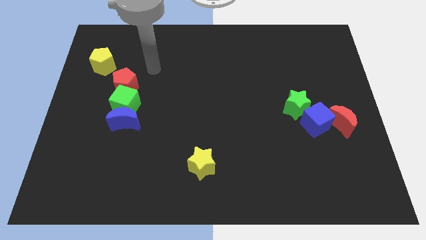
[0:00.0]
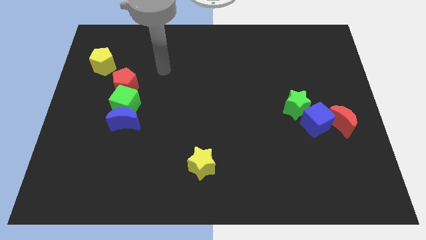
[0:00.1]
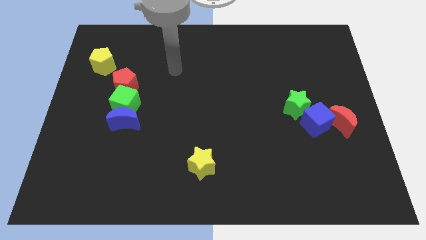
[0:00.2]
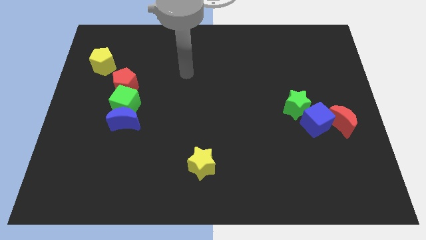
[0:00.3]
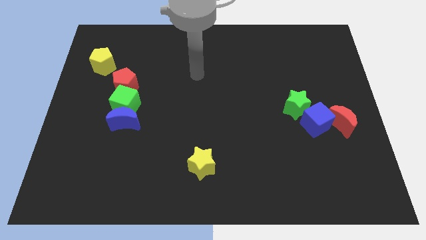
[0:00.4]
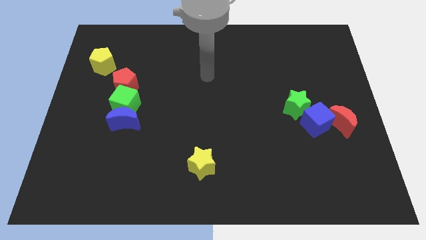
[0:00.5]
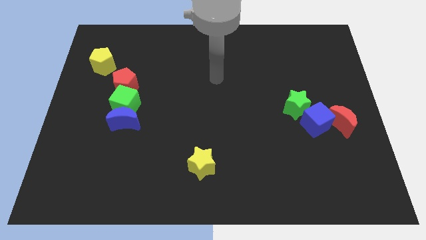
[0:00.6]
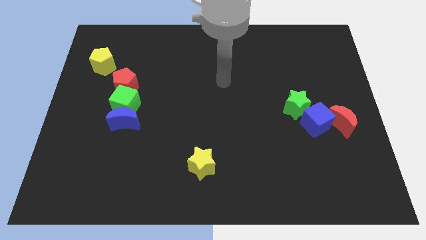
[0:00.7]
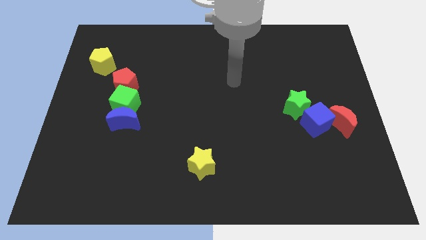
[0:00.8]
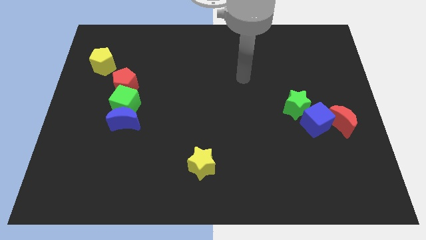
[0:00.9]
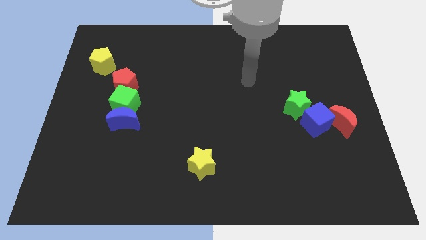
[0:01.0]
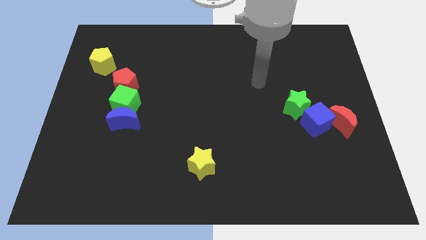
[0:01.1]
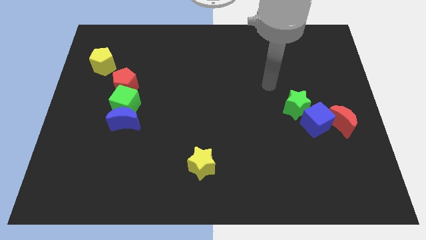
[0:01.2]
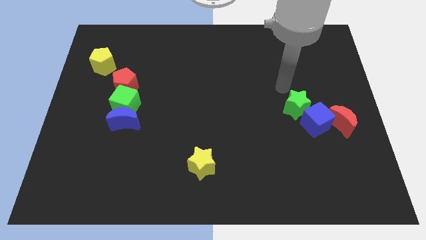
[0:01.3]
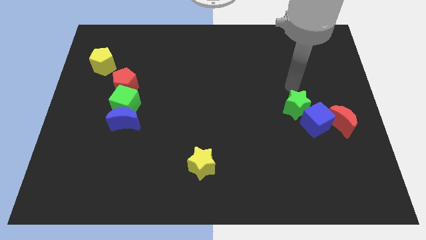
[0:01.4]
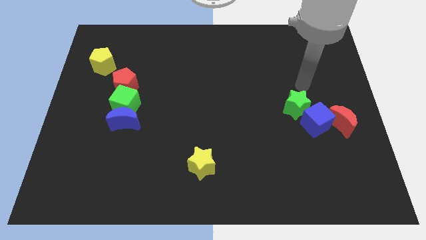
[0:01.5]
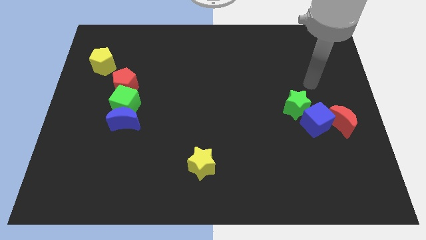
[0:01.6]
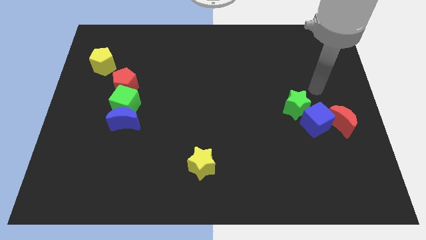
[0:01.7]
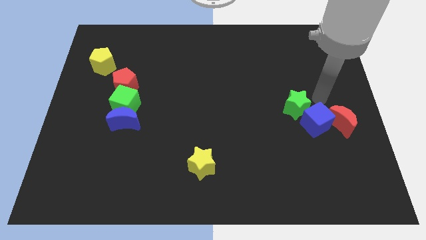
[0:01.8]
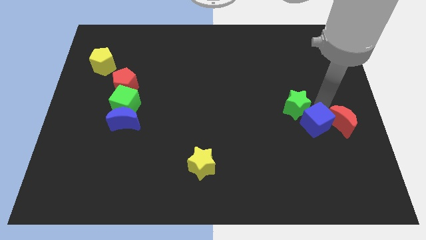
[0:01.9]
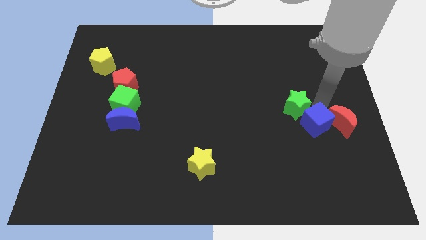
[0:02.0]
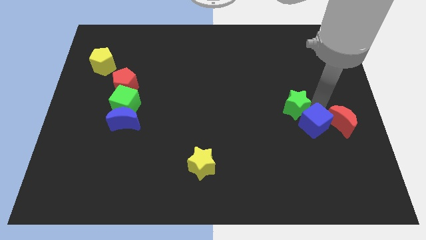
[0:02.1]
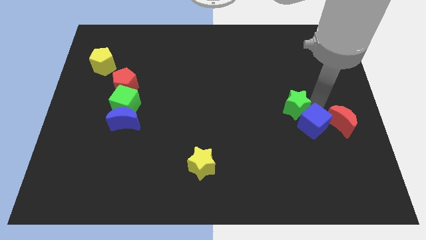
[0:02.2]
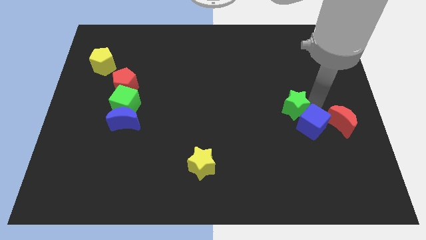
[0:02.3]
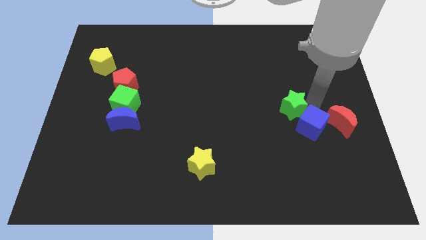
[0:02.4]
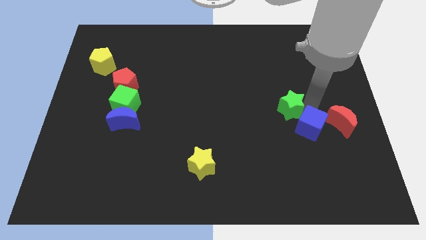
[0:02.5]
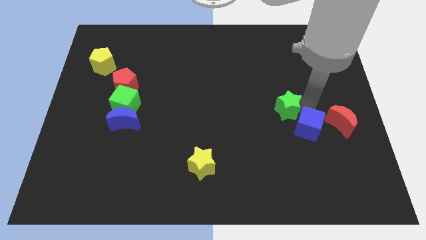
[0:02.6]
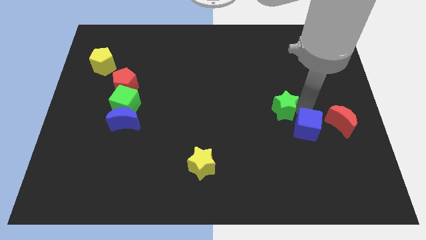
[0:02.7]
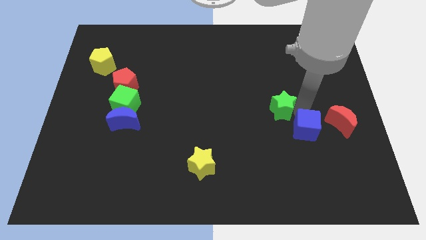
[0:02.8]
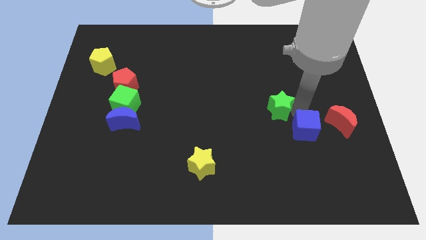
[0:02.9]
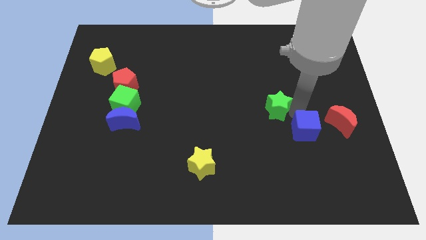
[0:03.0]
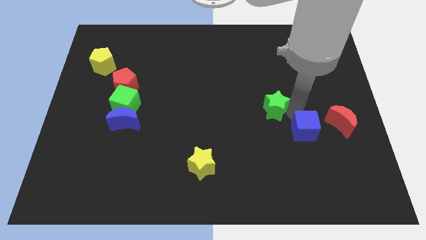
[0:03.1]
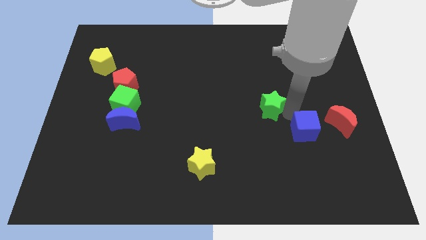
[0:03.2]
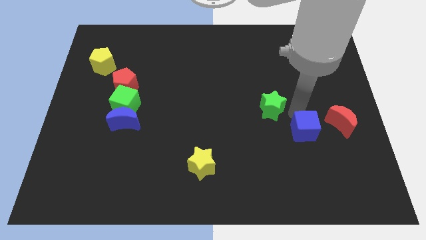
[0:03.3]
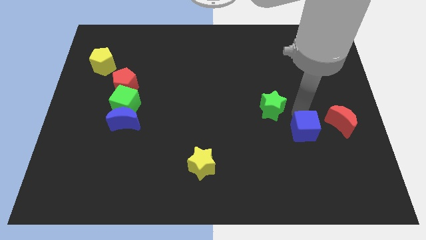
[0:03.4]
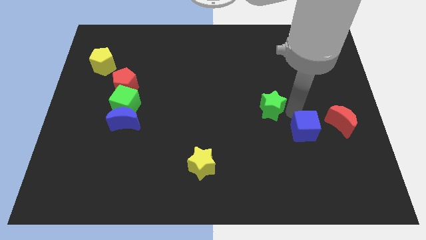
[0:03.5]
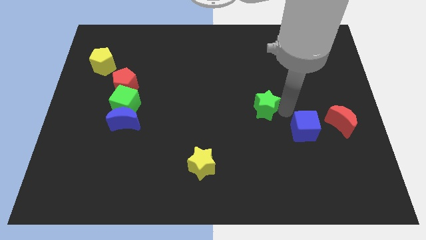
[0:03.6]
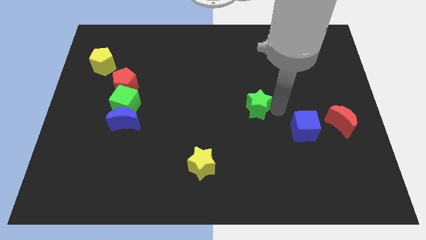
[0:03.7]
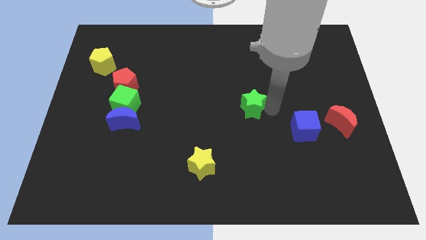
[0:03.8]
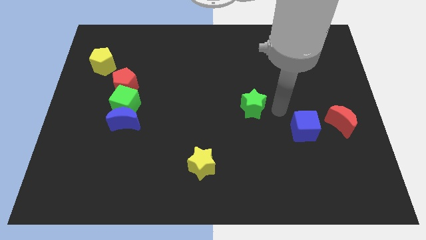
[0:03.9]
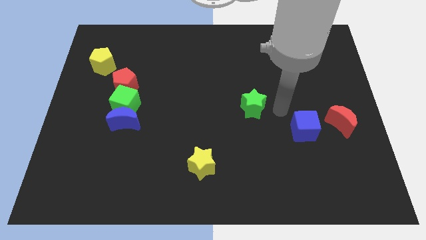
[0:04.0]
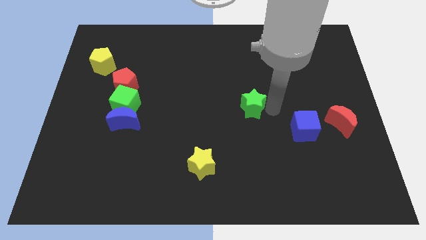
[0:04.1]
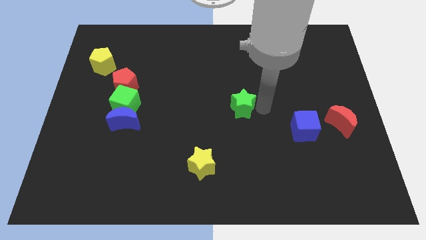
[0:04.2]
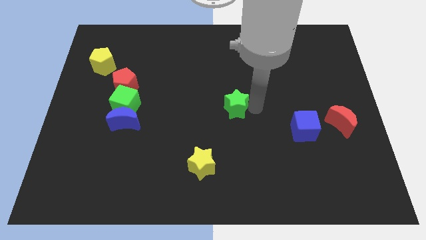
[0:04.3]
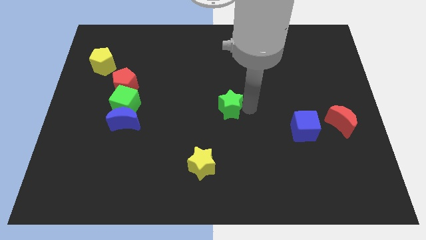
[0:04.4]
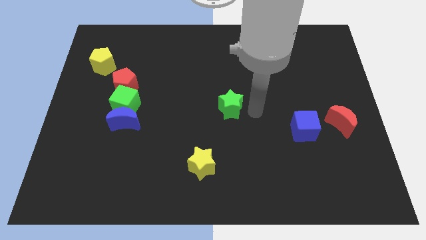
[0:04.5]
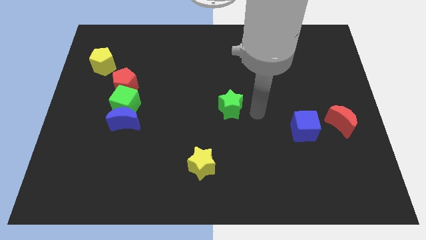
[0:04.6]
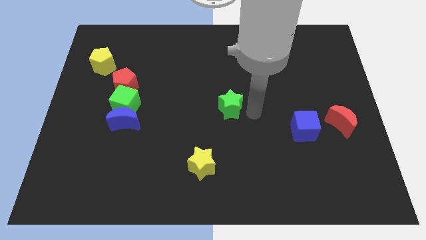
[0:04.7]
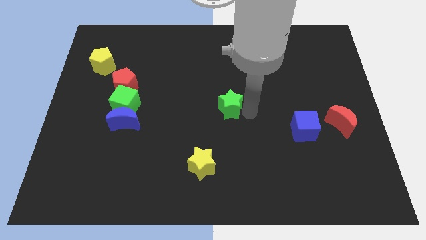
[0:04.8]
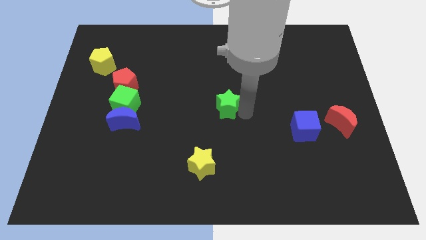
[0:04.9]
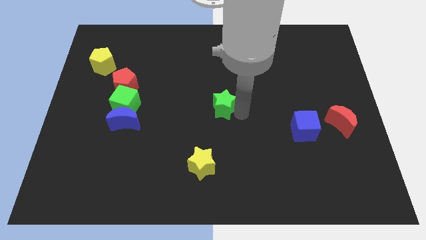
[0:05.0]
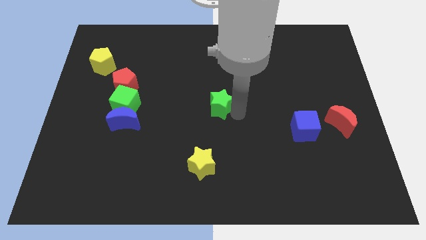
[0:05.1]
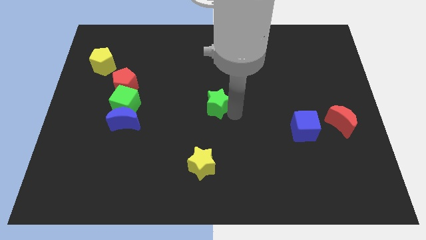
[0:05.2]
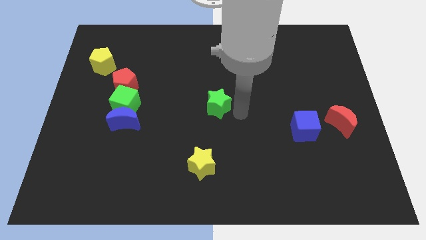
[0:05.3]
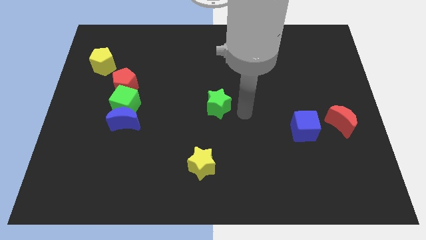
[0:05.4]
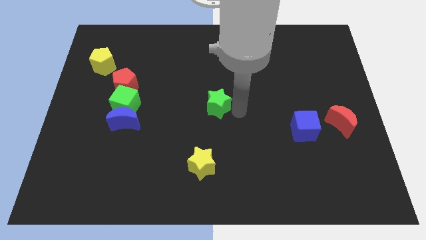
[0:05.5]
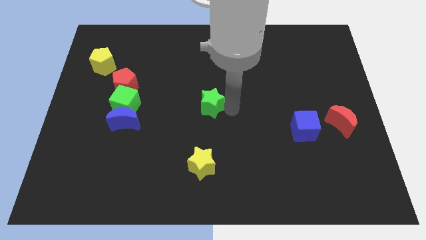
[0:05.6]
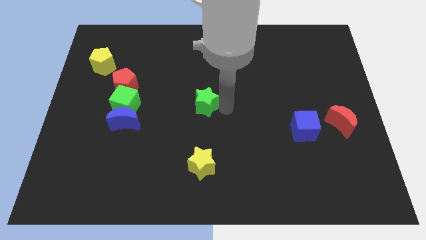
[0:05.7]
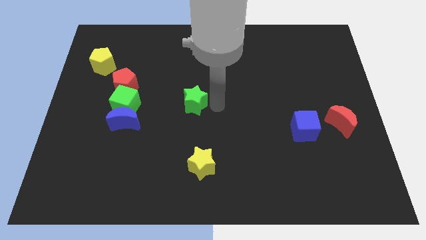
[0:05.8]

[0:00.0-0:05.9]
move the green star to the right side of the green cube

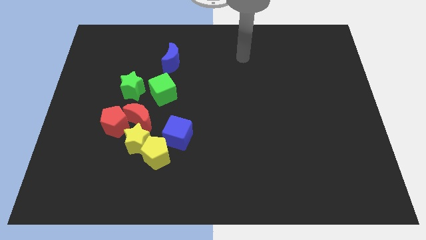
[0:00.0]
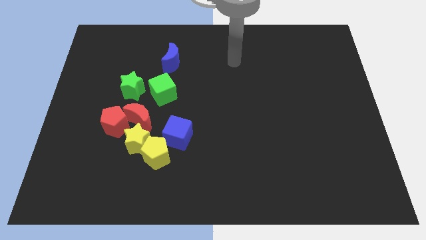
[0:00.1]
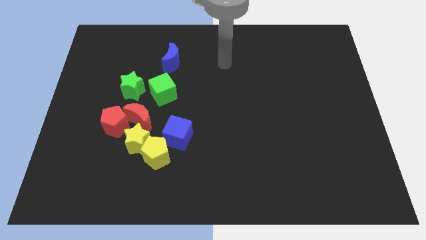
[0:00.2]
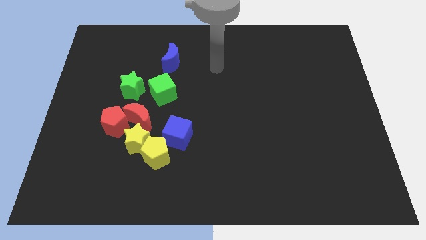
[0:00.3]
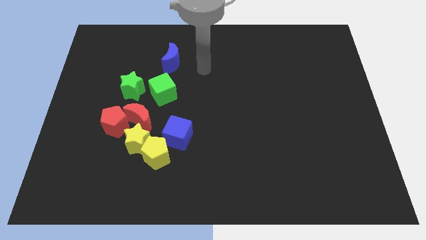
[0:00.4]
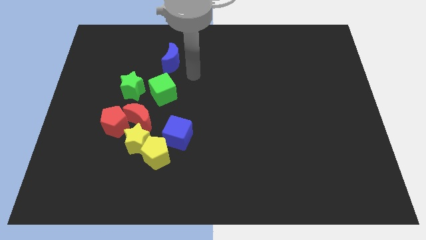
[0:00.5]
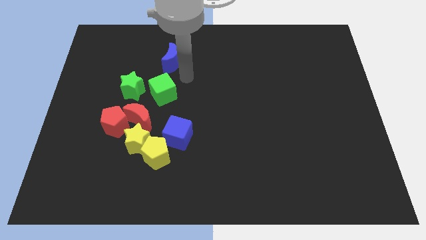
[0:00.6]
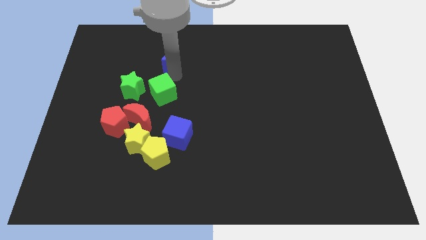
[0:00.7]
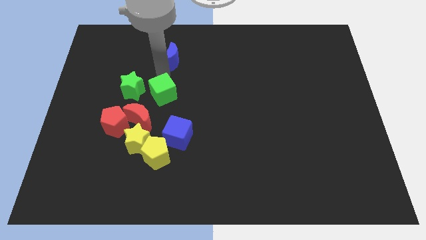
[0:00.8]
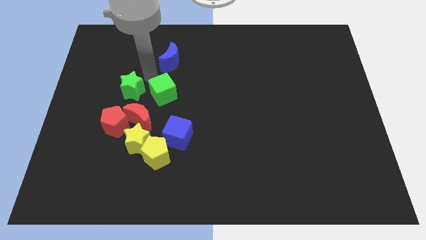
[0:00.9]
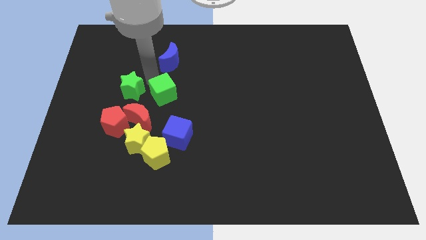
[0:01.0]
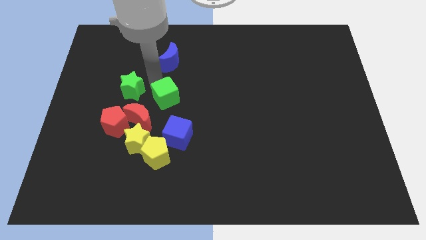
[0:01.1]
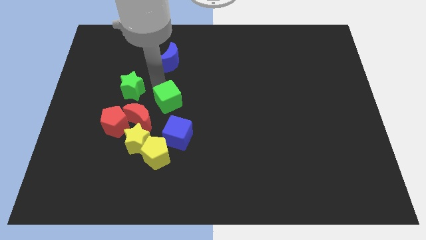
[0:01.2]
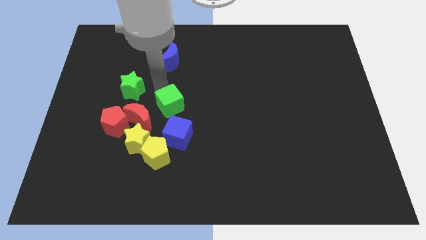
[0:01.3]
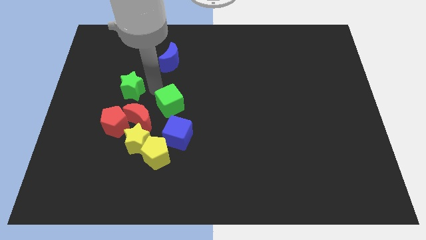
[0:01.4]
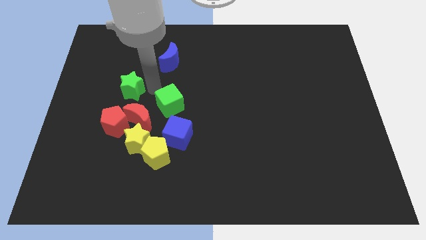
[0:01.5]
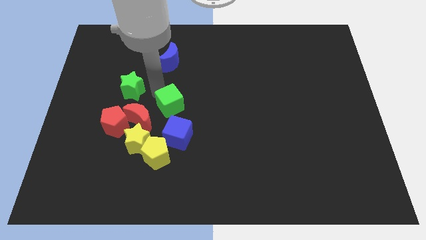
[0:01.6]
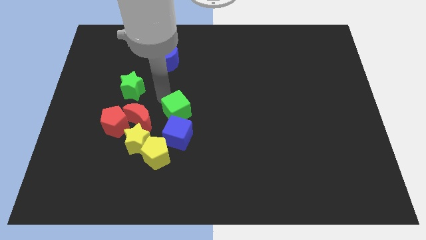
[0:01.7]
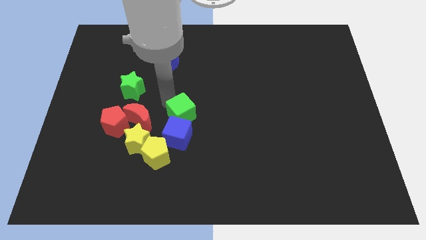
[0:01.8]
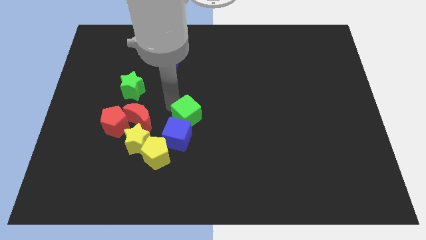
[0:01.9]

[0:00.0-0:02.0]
push the green cube to the top right side of the yellow pentagon
